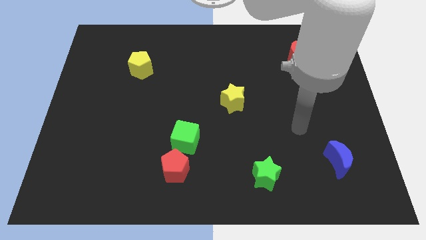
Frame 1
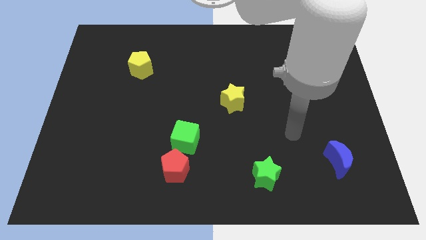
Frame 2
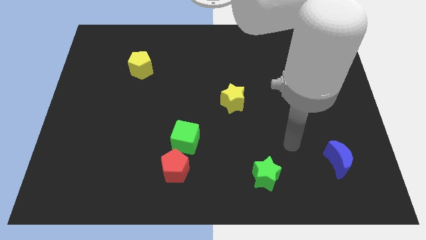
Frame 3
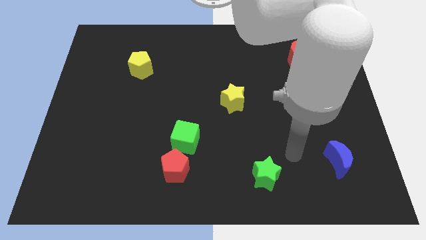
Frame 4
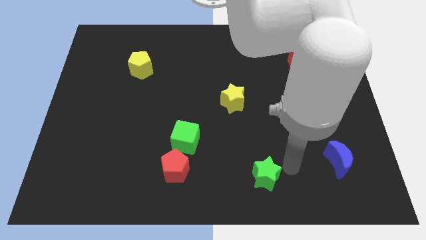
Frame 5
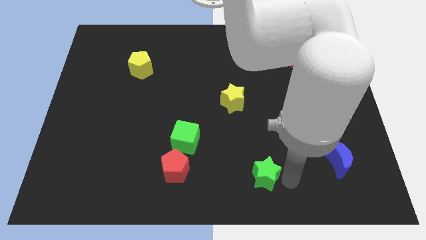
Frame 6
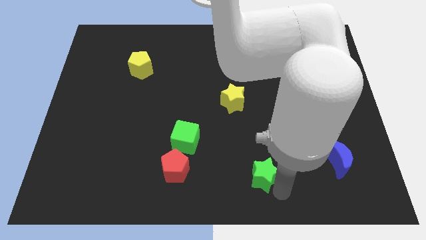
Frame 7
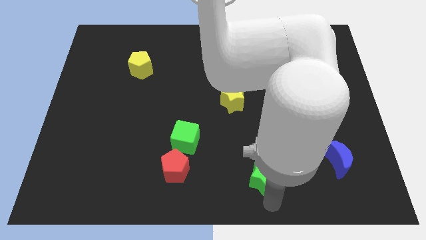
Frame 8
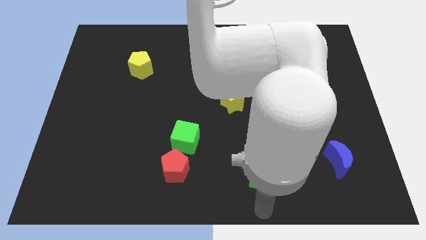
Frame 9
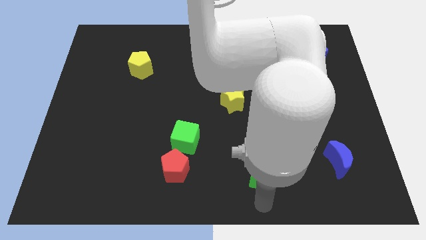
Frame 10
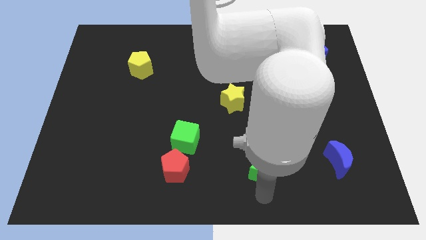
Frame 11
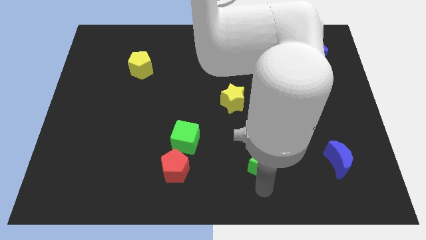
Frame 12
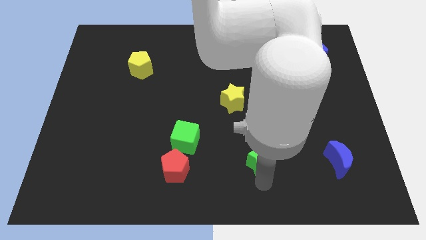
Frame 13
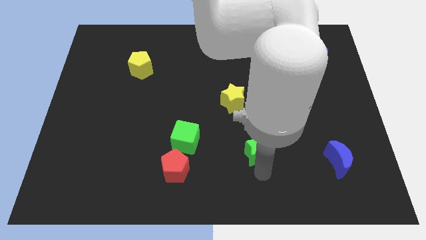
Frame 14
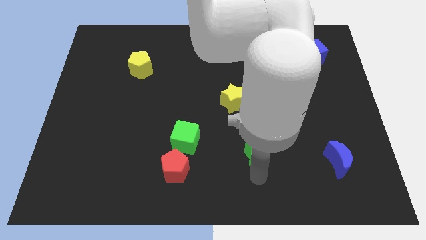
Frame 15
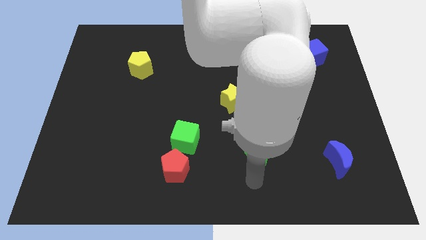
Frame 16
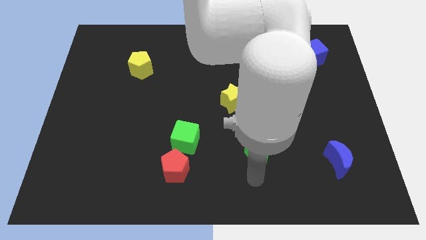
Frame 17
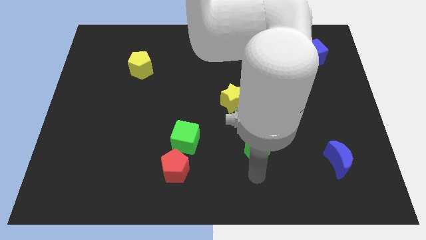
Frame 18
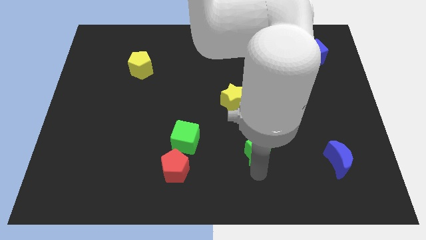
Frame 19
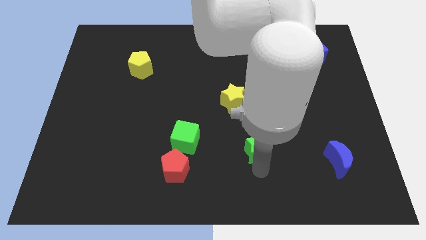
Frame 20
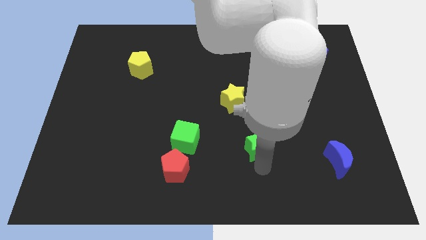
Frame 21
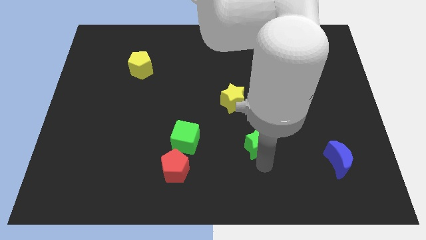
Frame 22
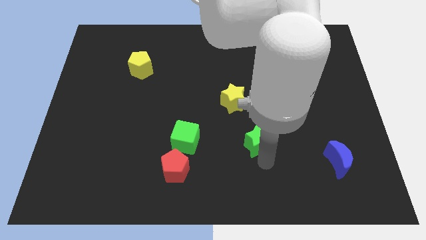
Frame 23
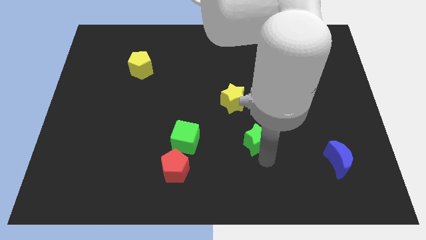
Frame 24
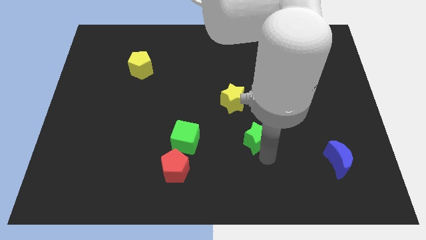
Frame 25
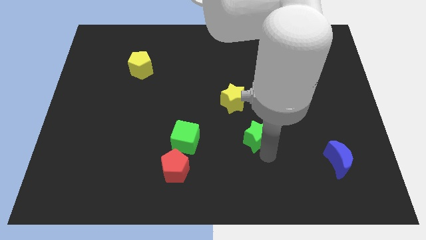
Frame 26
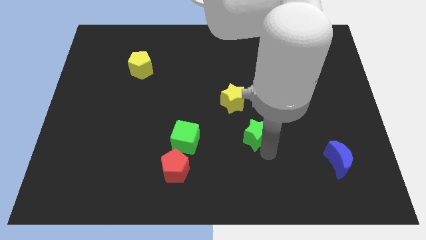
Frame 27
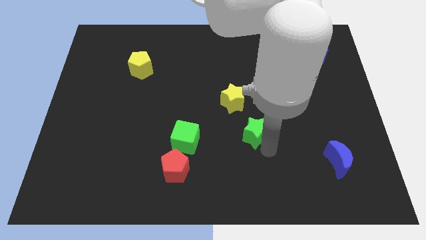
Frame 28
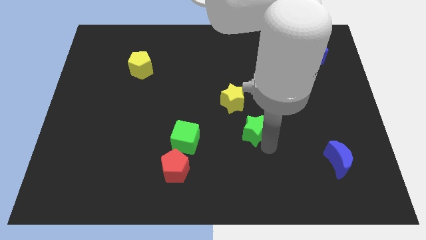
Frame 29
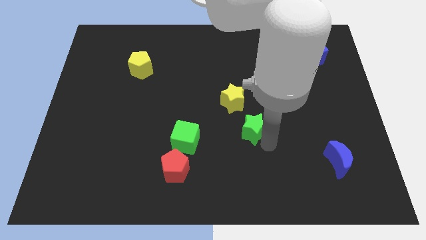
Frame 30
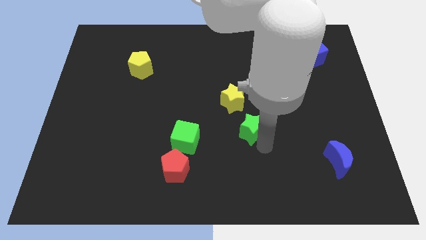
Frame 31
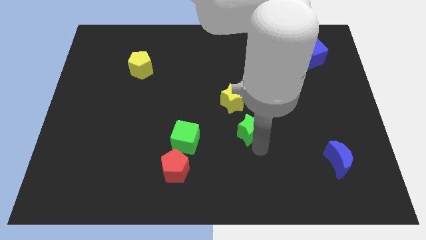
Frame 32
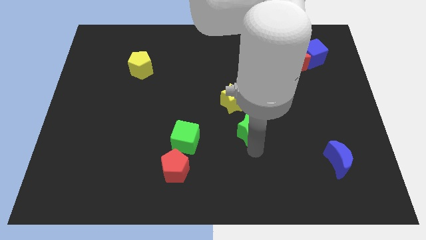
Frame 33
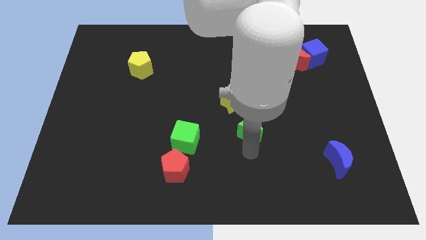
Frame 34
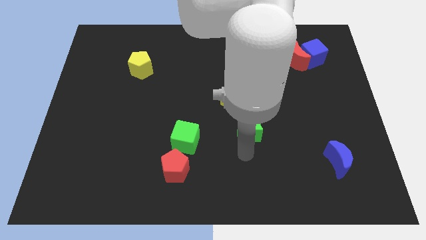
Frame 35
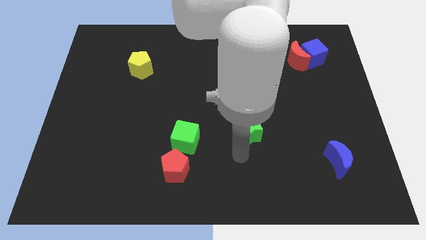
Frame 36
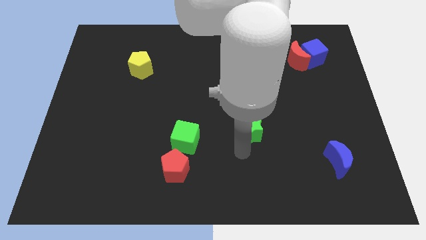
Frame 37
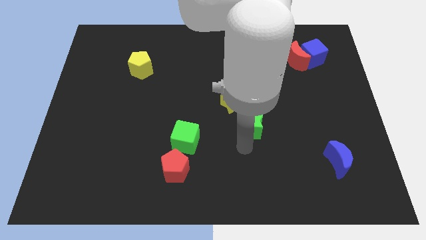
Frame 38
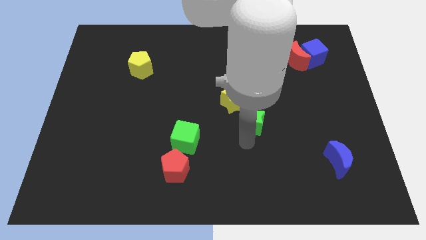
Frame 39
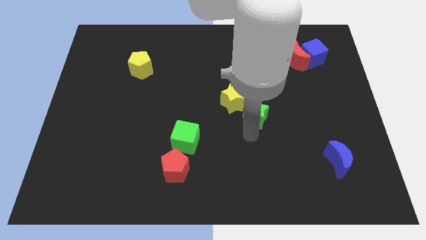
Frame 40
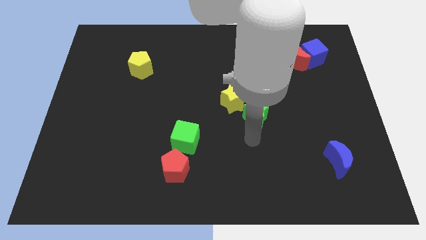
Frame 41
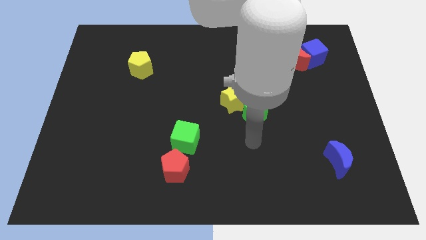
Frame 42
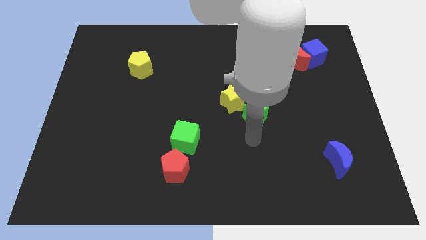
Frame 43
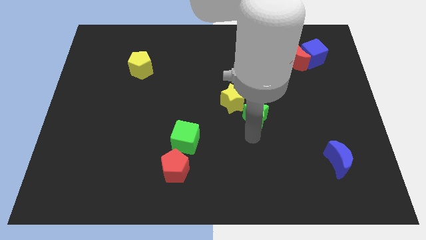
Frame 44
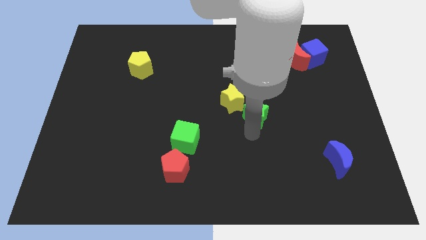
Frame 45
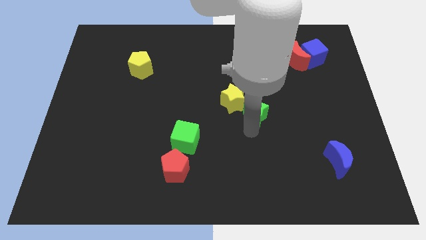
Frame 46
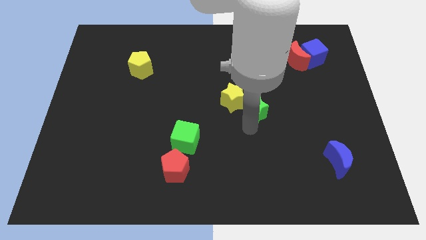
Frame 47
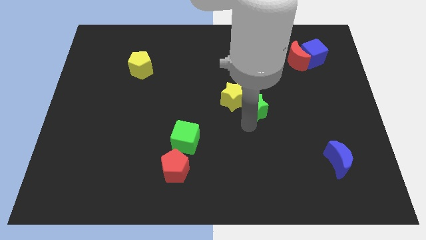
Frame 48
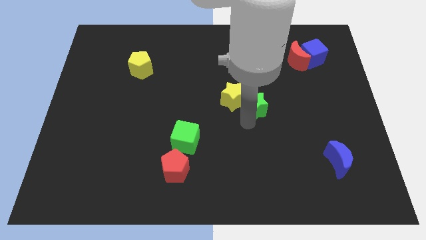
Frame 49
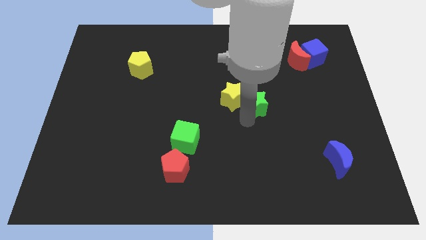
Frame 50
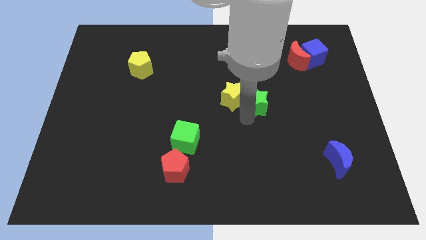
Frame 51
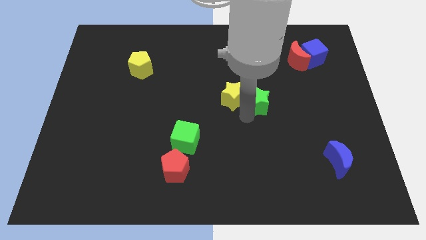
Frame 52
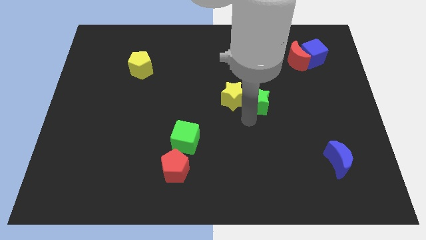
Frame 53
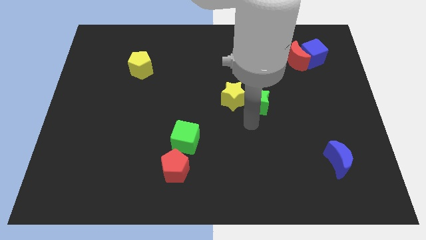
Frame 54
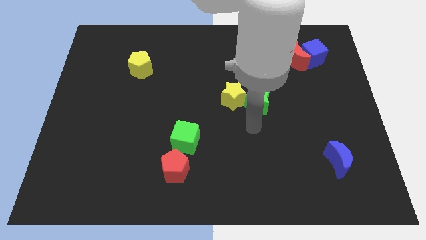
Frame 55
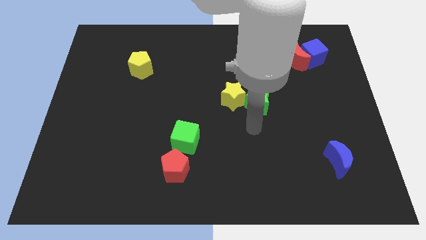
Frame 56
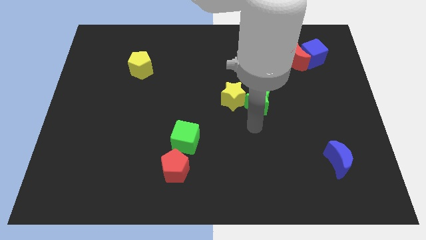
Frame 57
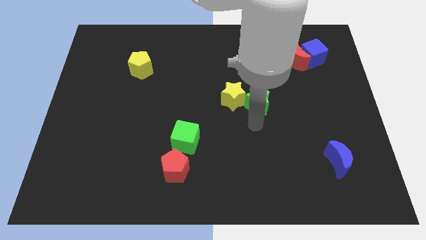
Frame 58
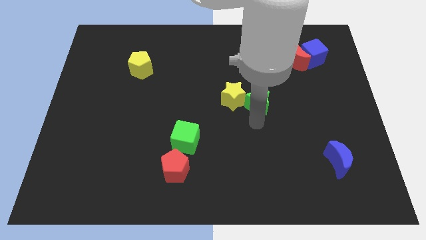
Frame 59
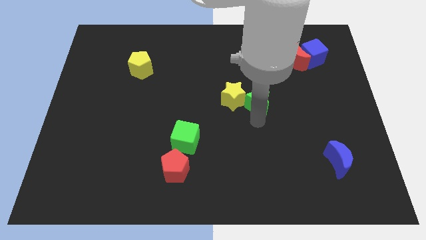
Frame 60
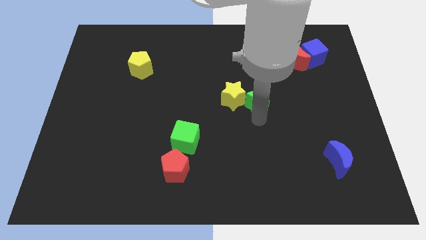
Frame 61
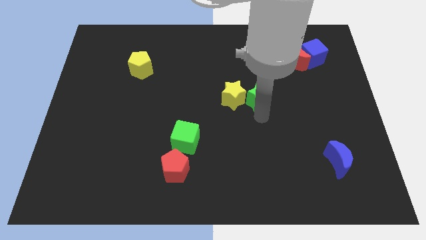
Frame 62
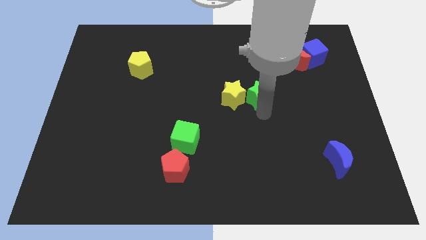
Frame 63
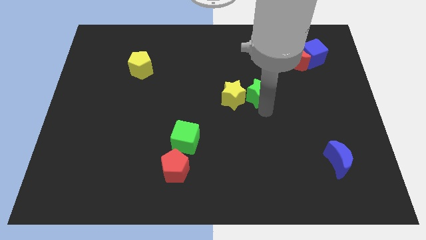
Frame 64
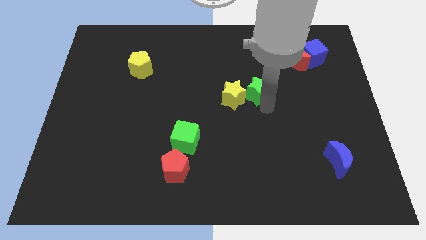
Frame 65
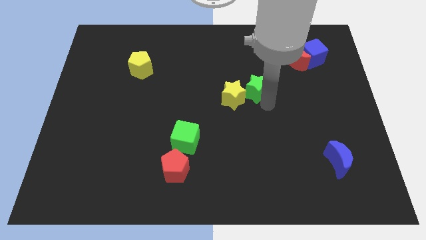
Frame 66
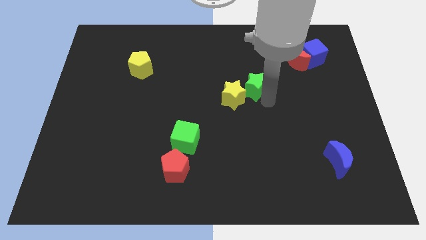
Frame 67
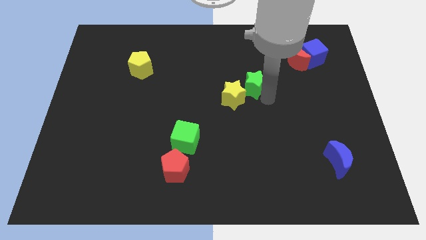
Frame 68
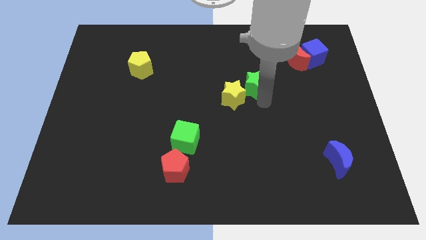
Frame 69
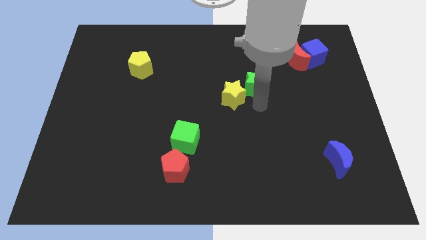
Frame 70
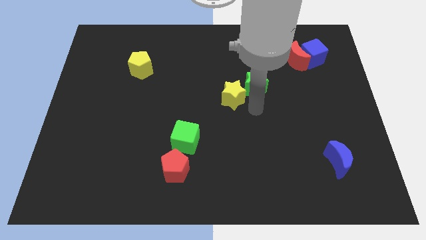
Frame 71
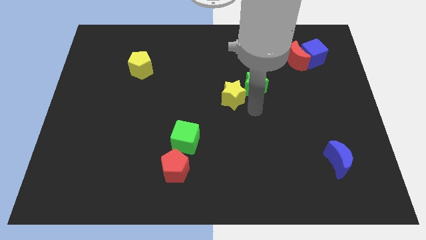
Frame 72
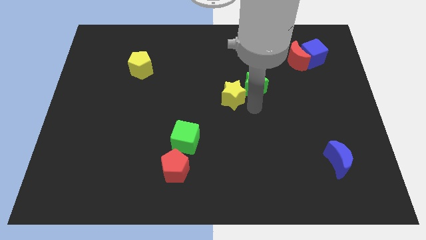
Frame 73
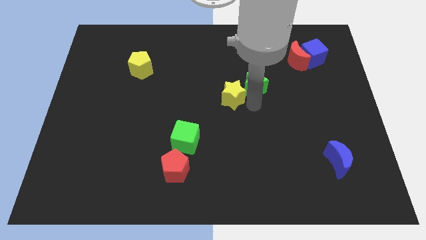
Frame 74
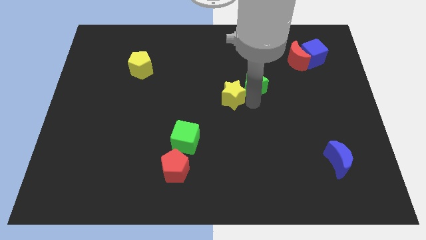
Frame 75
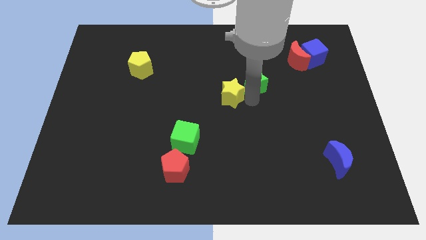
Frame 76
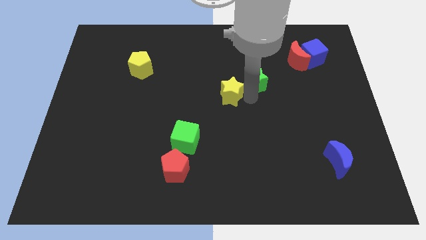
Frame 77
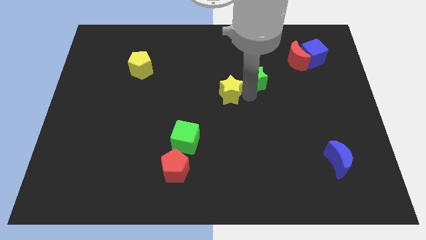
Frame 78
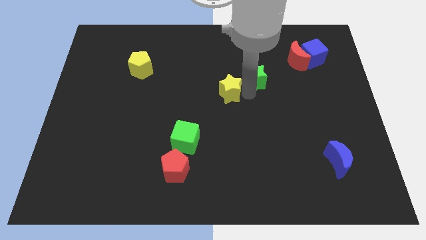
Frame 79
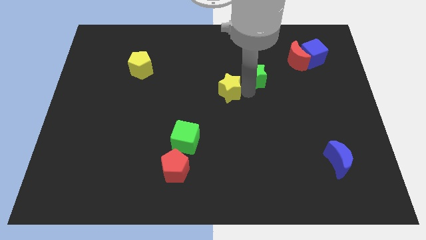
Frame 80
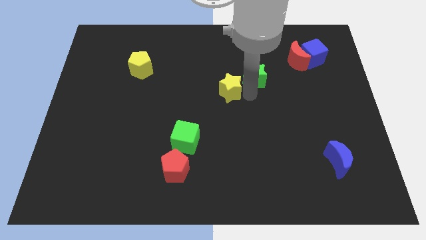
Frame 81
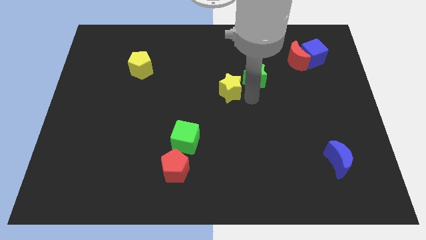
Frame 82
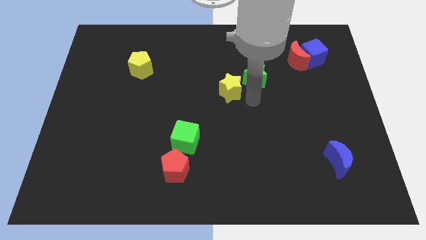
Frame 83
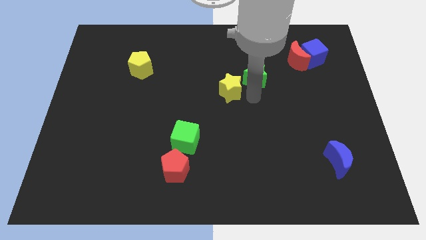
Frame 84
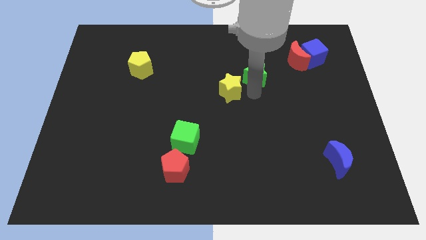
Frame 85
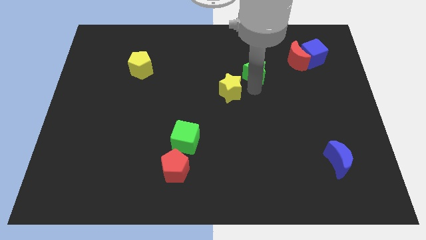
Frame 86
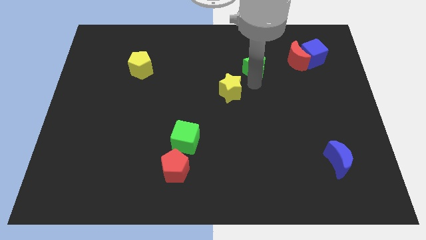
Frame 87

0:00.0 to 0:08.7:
put the green star left of the red moon
